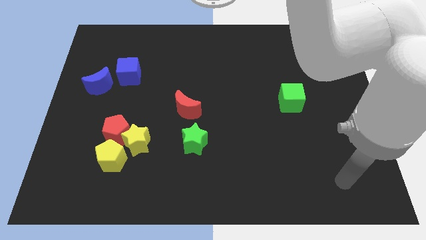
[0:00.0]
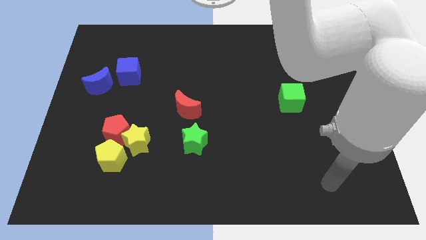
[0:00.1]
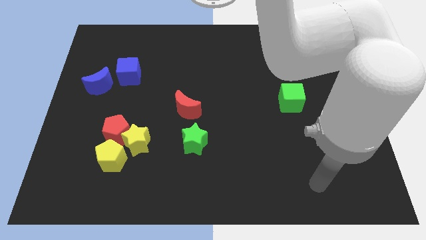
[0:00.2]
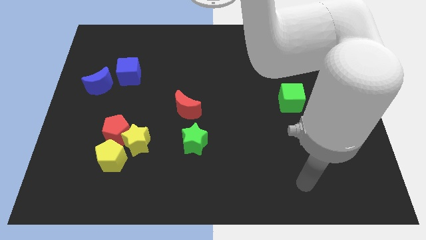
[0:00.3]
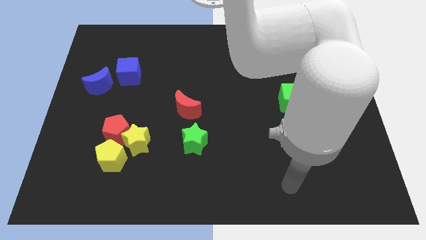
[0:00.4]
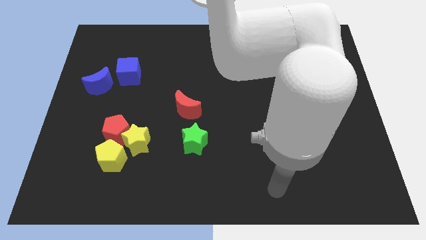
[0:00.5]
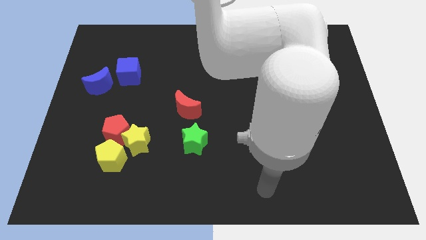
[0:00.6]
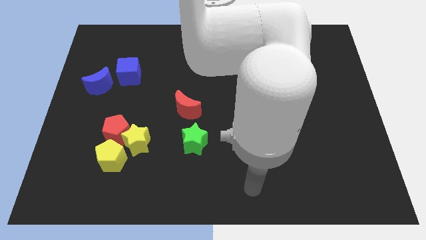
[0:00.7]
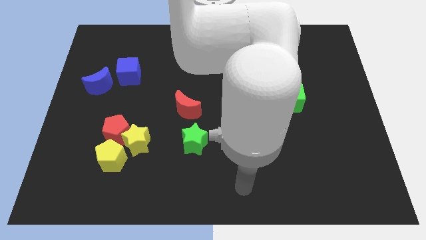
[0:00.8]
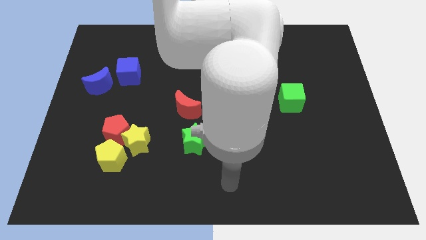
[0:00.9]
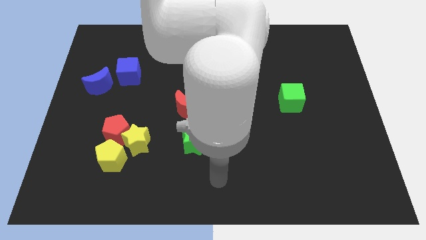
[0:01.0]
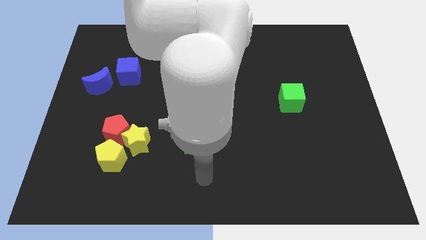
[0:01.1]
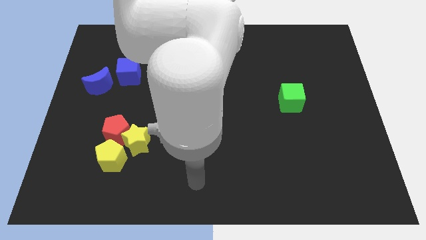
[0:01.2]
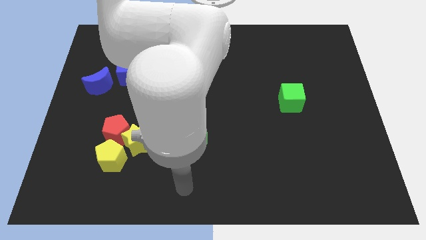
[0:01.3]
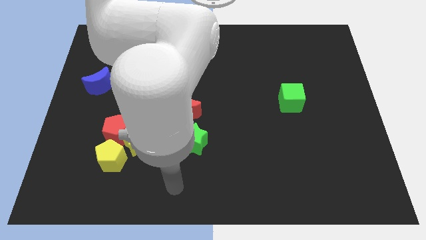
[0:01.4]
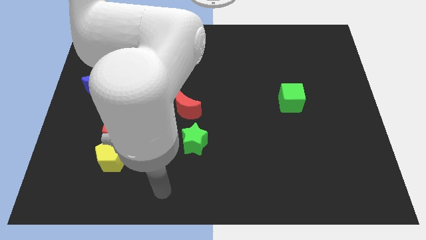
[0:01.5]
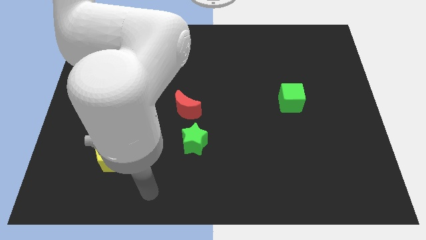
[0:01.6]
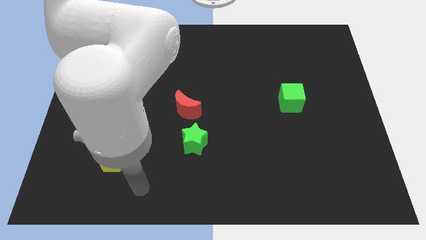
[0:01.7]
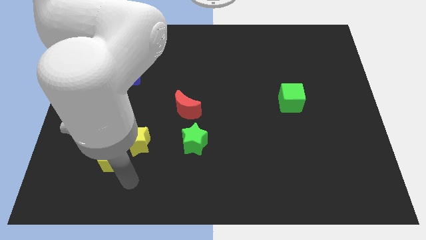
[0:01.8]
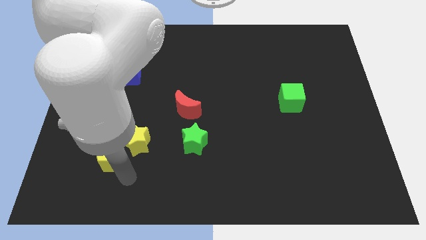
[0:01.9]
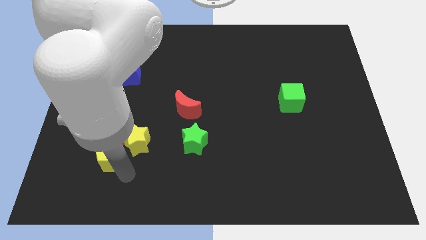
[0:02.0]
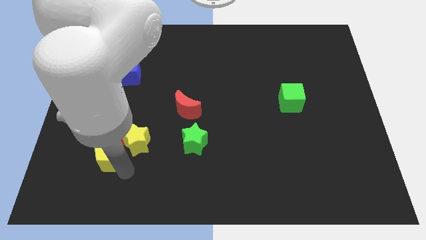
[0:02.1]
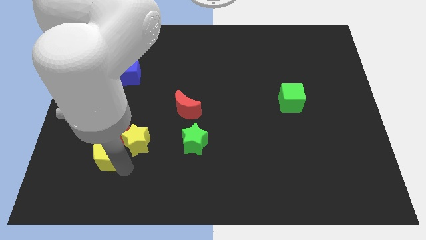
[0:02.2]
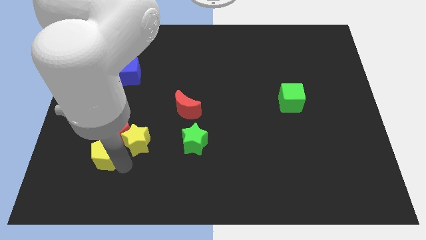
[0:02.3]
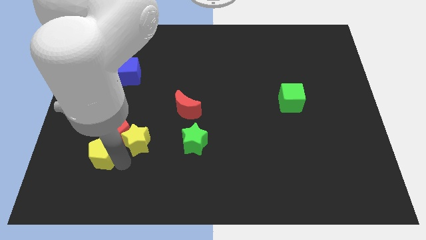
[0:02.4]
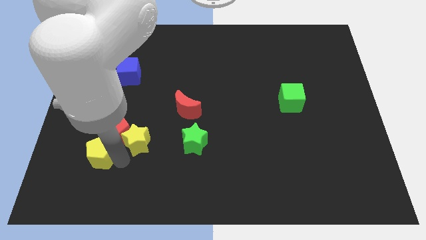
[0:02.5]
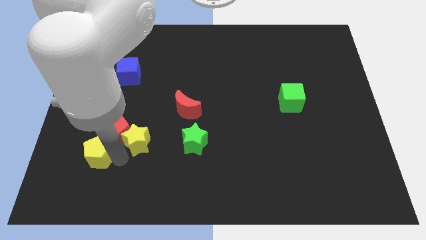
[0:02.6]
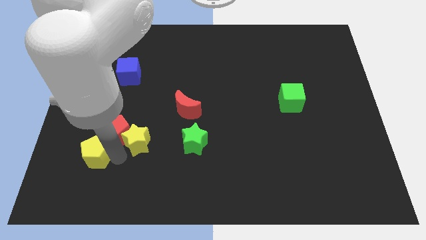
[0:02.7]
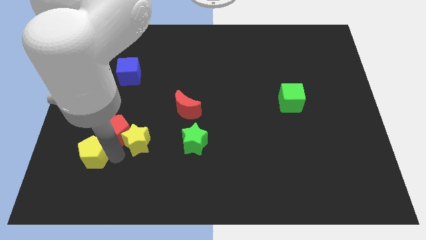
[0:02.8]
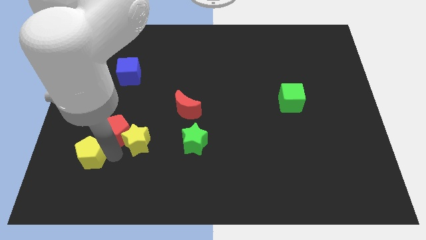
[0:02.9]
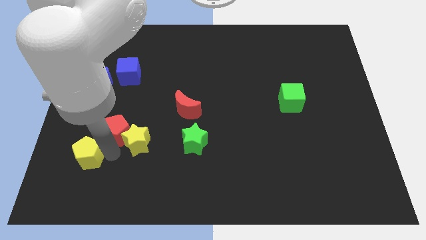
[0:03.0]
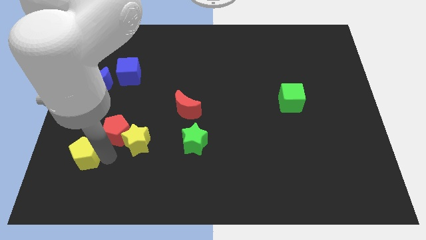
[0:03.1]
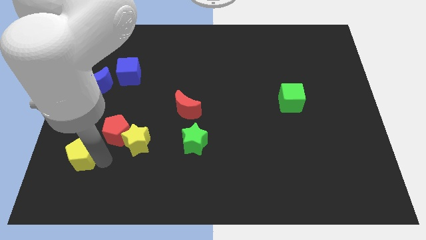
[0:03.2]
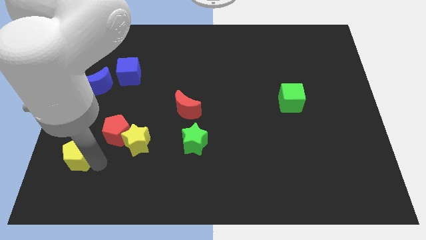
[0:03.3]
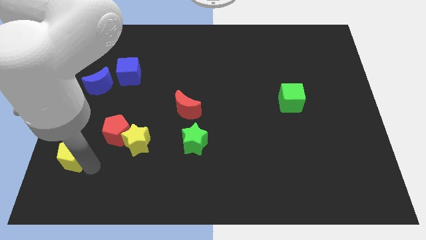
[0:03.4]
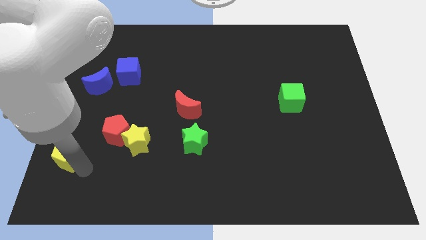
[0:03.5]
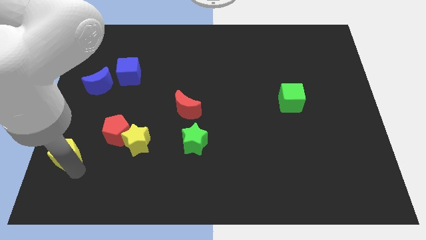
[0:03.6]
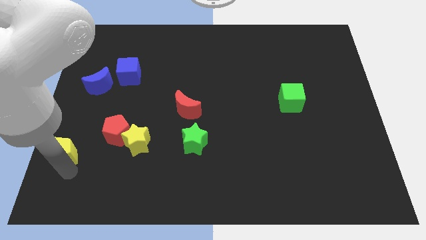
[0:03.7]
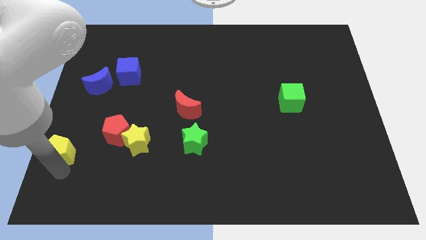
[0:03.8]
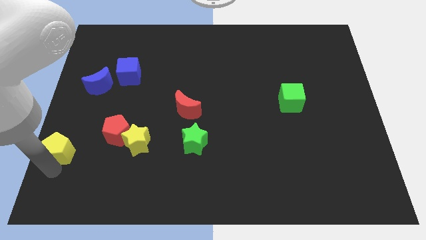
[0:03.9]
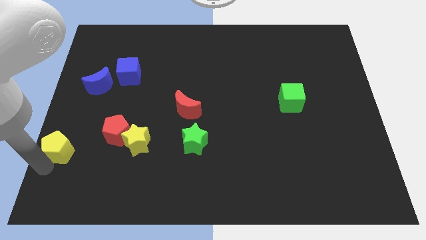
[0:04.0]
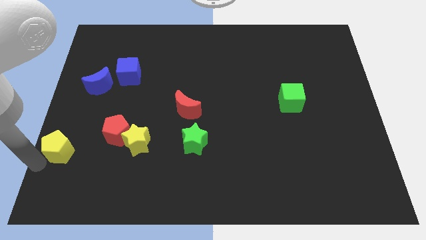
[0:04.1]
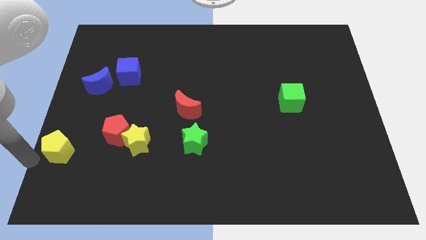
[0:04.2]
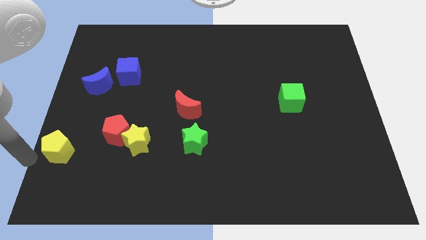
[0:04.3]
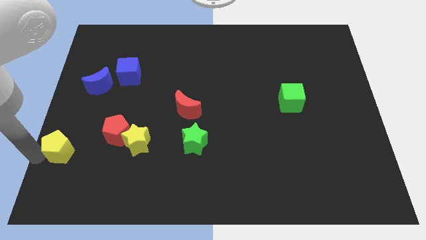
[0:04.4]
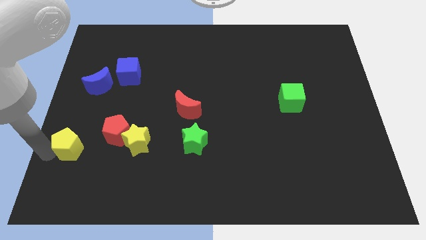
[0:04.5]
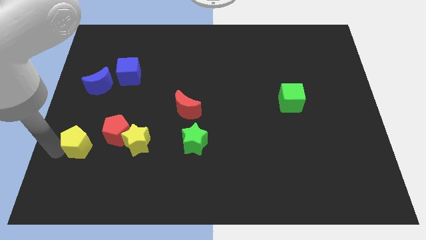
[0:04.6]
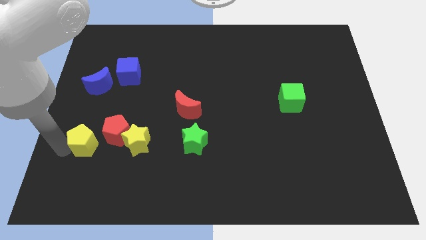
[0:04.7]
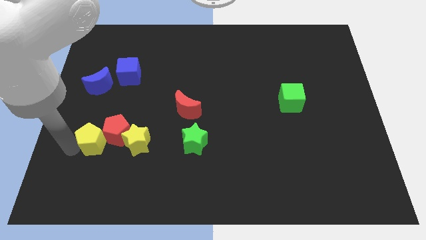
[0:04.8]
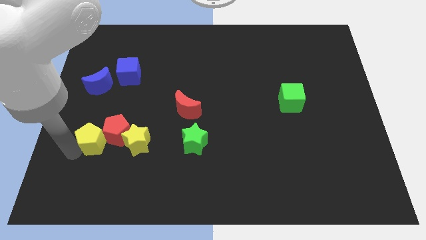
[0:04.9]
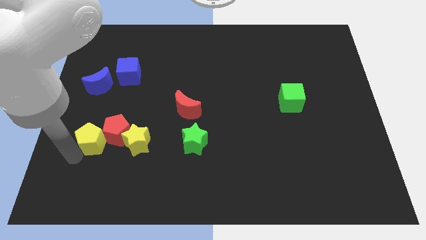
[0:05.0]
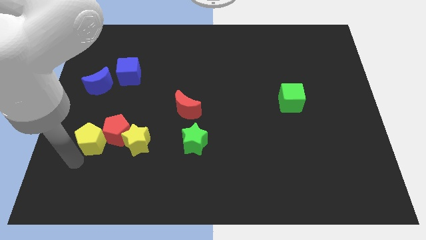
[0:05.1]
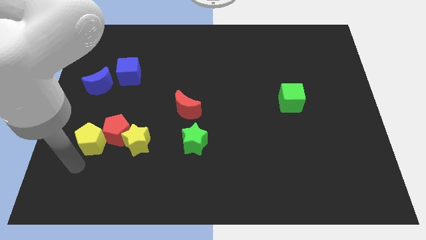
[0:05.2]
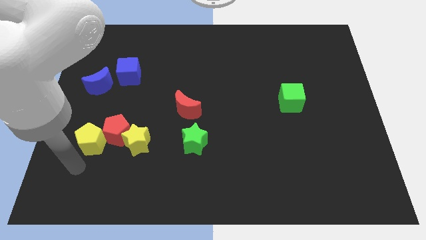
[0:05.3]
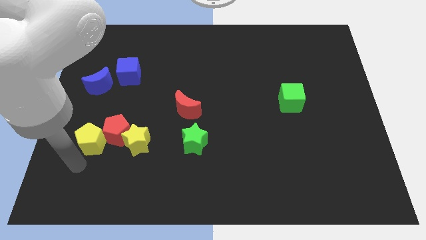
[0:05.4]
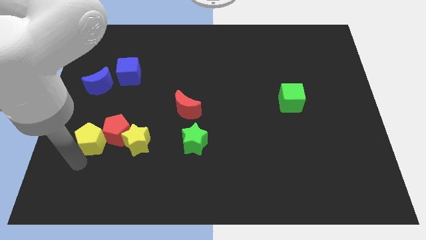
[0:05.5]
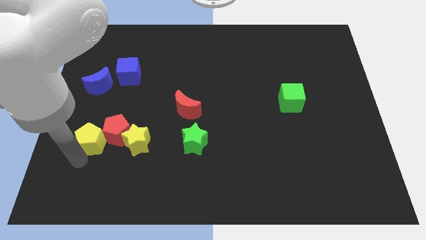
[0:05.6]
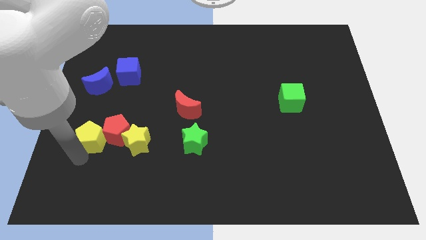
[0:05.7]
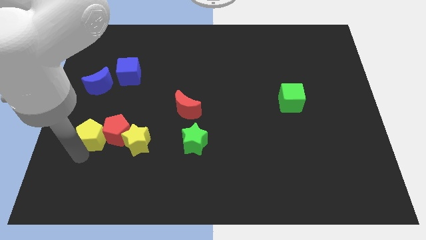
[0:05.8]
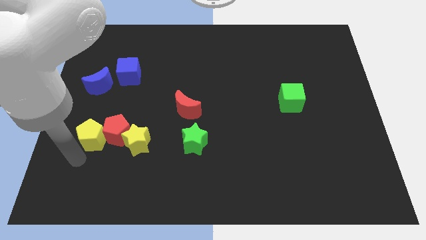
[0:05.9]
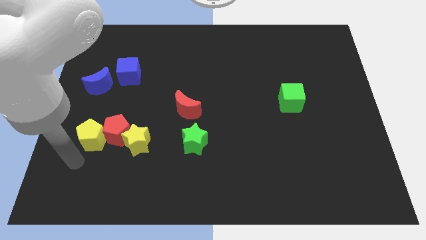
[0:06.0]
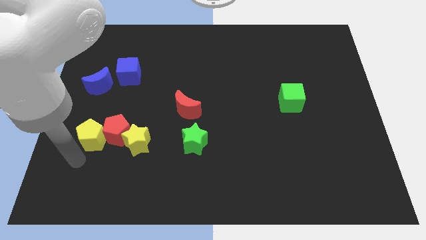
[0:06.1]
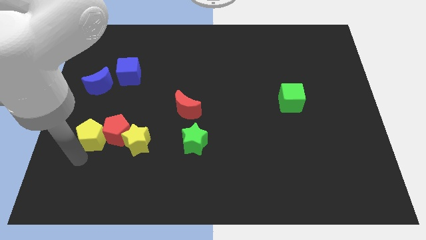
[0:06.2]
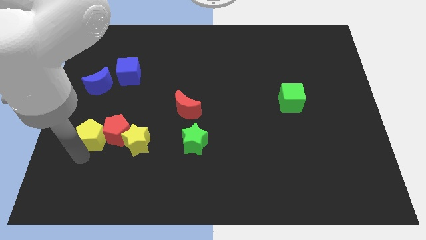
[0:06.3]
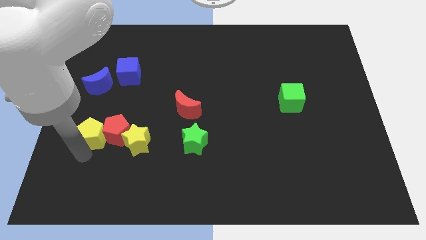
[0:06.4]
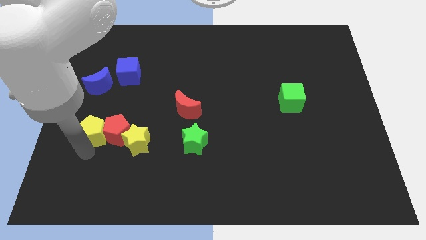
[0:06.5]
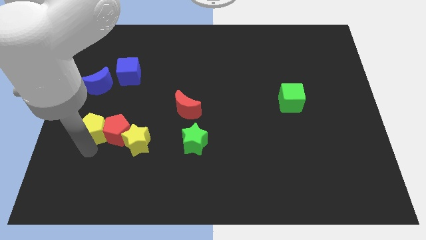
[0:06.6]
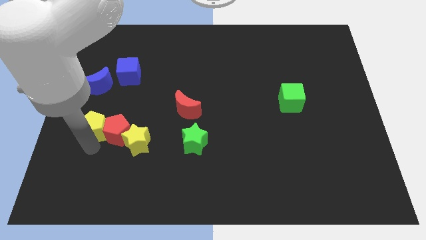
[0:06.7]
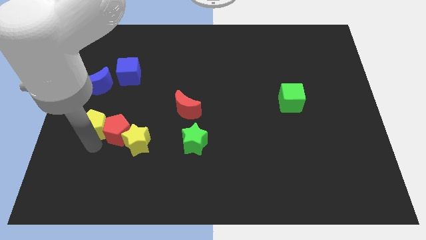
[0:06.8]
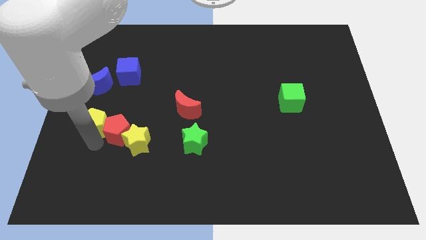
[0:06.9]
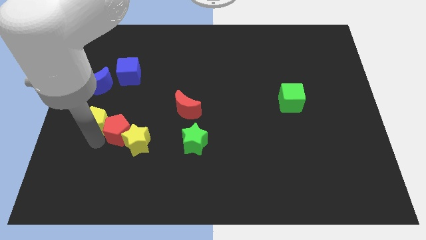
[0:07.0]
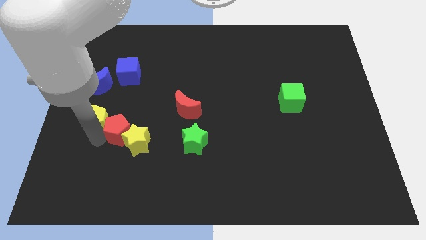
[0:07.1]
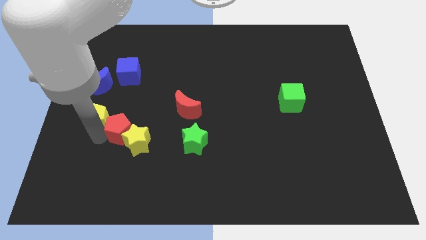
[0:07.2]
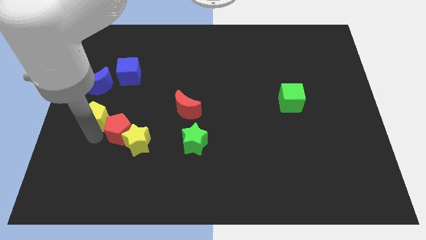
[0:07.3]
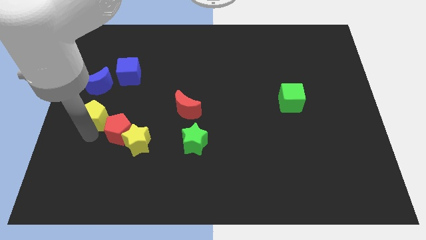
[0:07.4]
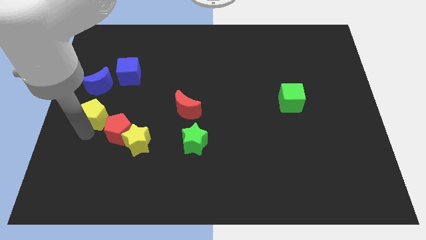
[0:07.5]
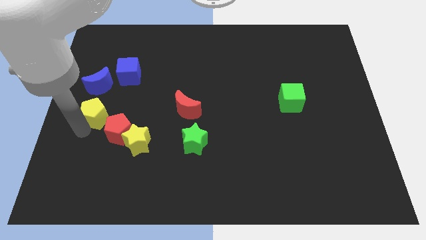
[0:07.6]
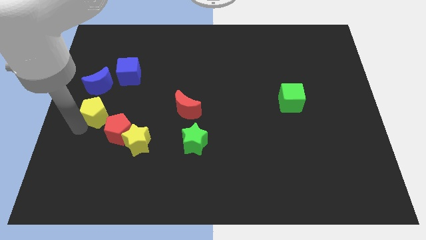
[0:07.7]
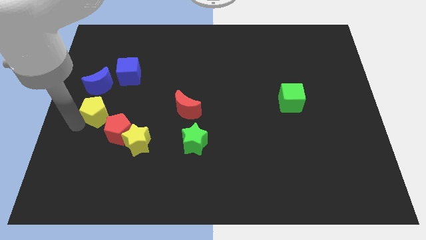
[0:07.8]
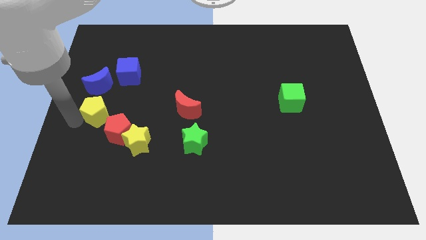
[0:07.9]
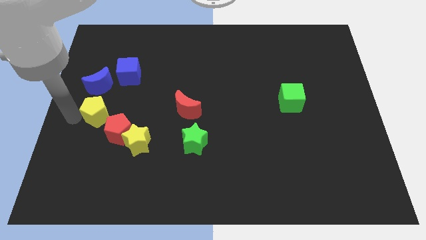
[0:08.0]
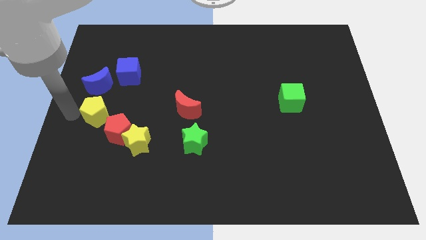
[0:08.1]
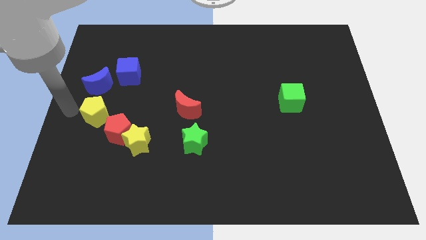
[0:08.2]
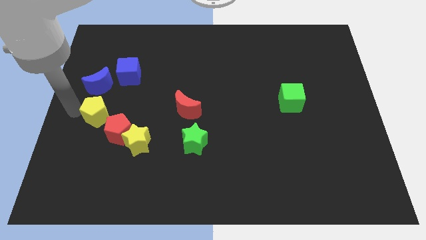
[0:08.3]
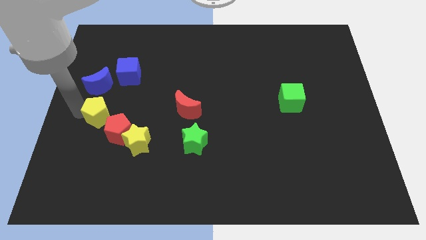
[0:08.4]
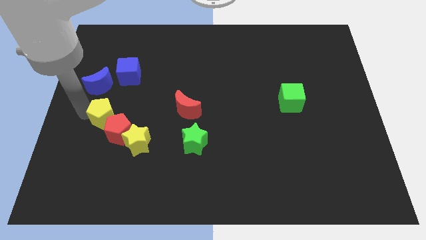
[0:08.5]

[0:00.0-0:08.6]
push the yellow pentagon to the bottom side of the blue cube
